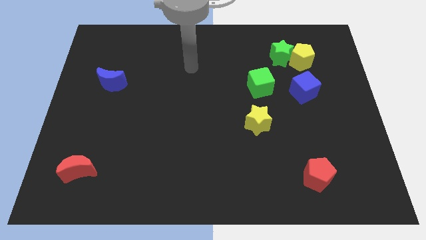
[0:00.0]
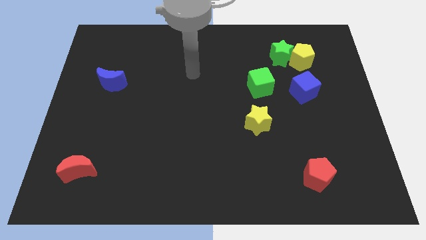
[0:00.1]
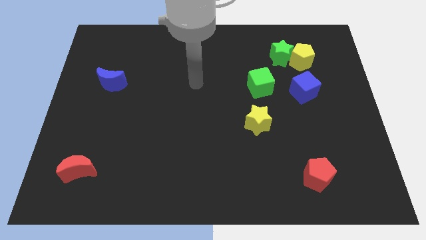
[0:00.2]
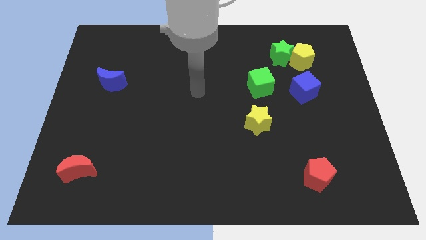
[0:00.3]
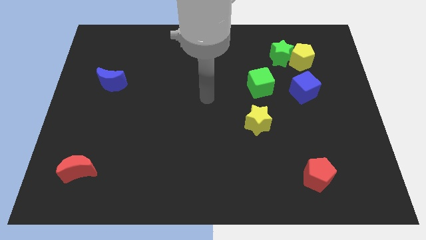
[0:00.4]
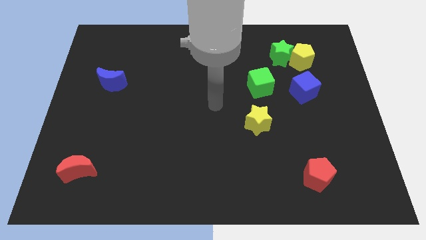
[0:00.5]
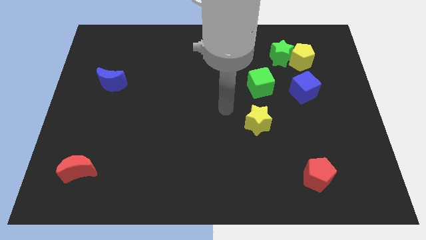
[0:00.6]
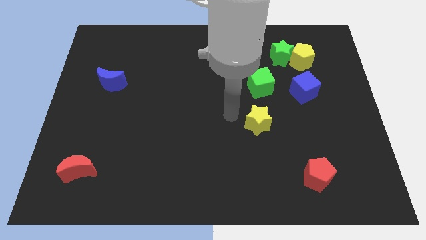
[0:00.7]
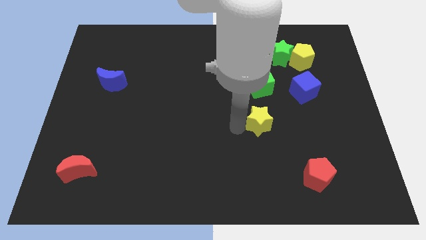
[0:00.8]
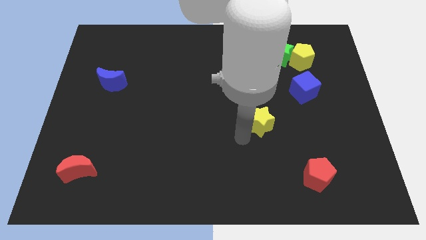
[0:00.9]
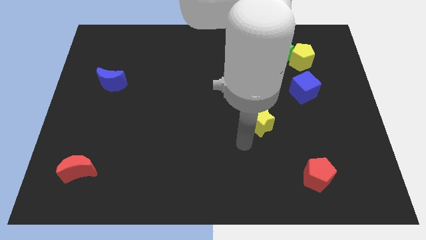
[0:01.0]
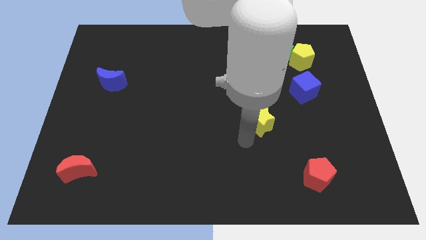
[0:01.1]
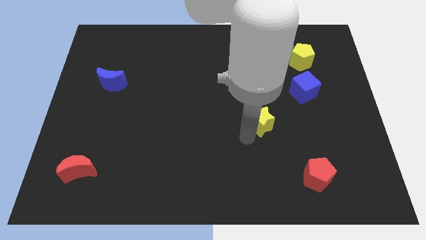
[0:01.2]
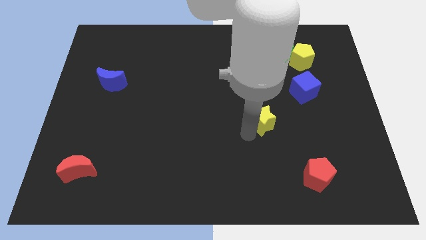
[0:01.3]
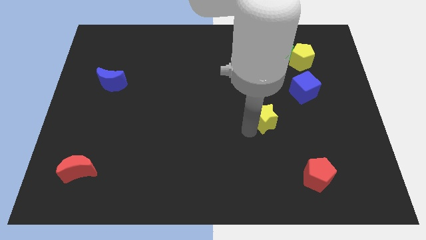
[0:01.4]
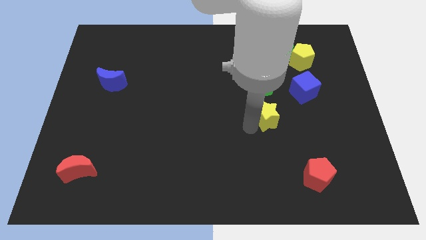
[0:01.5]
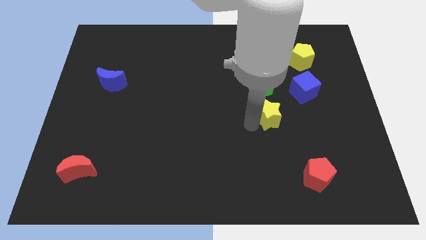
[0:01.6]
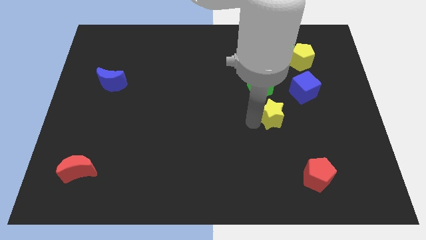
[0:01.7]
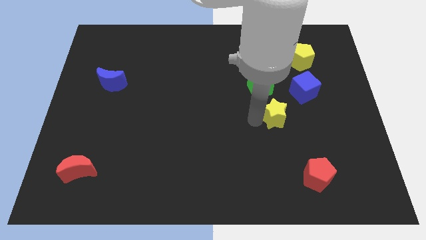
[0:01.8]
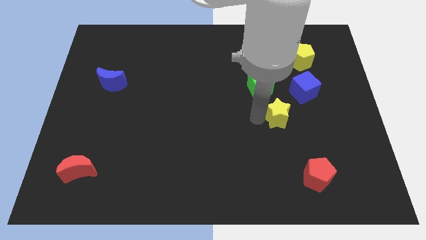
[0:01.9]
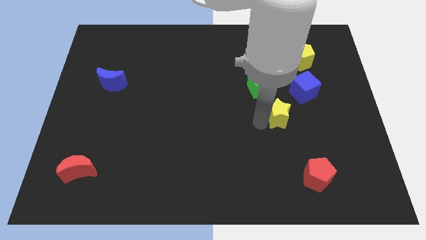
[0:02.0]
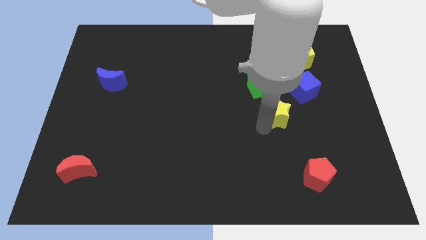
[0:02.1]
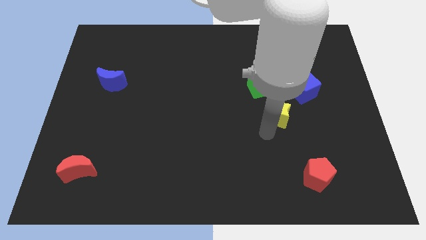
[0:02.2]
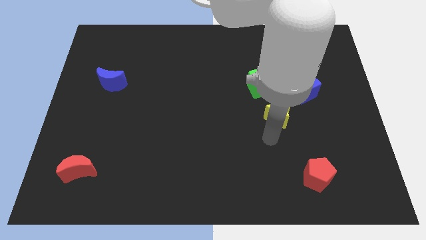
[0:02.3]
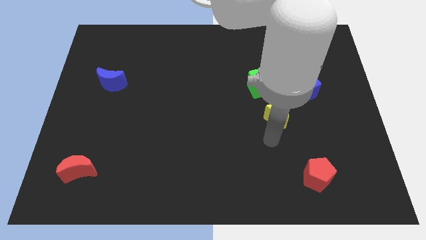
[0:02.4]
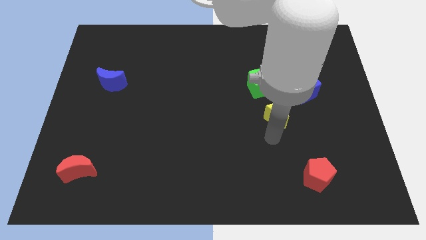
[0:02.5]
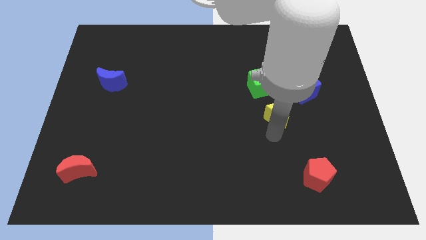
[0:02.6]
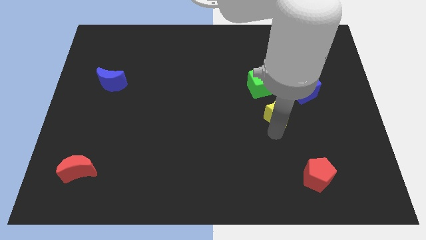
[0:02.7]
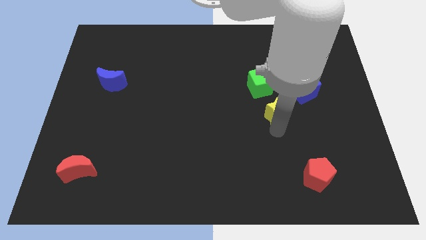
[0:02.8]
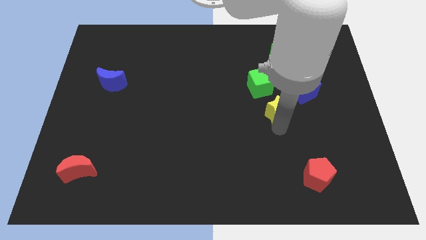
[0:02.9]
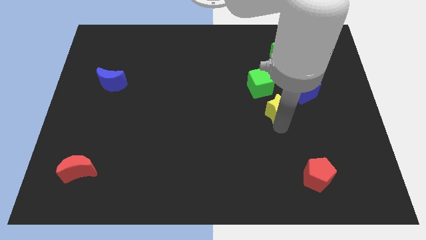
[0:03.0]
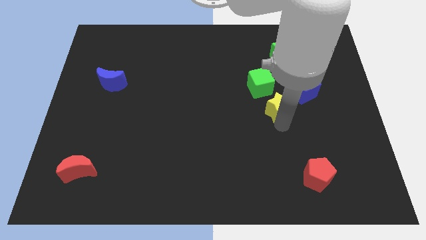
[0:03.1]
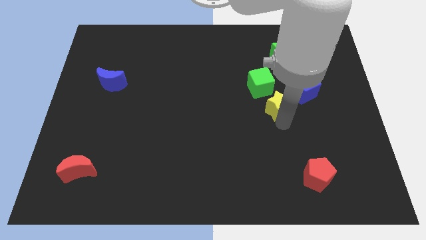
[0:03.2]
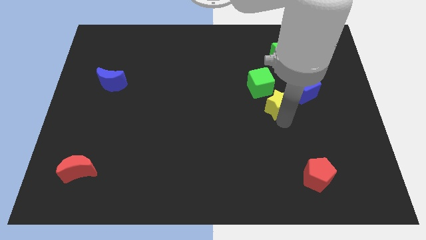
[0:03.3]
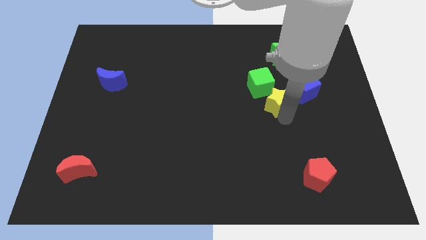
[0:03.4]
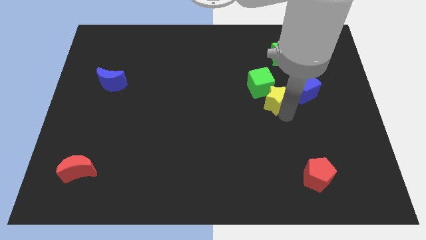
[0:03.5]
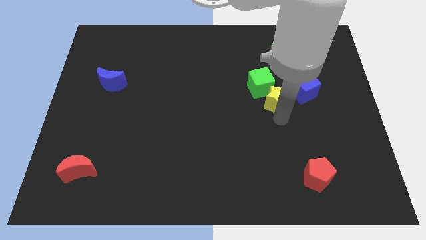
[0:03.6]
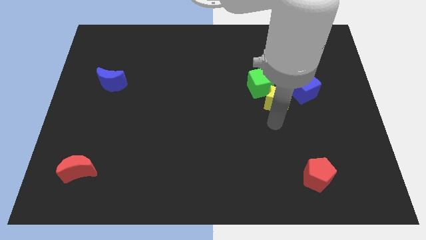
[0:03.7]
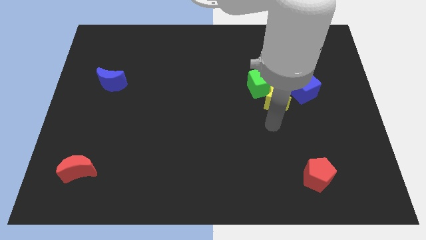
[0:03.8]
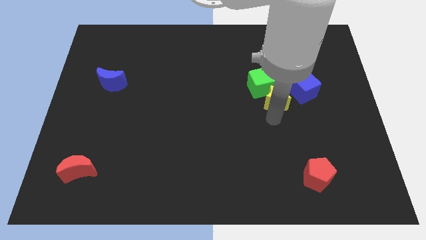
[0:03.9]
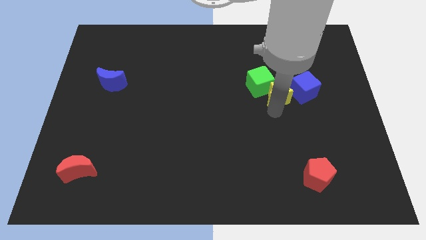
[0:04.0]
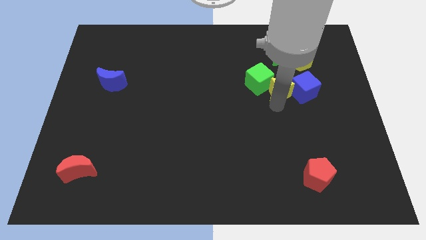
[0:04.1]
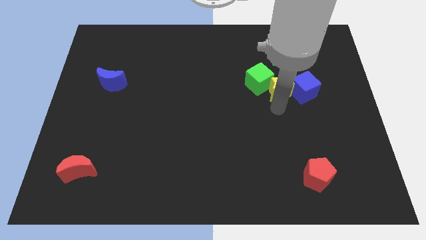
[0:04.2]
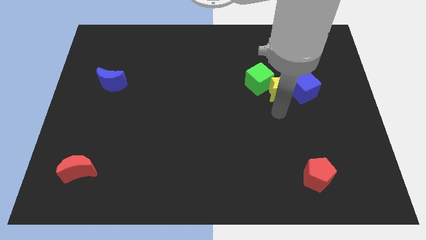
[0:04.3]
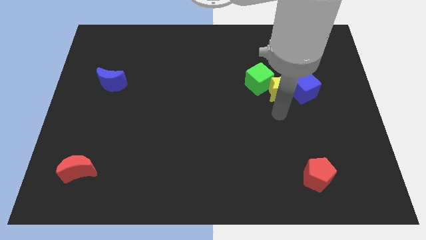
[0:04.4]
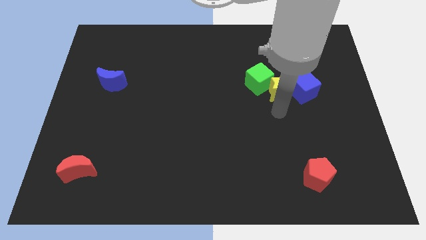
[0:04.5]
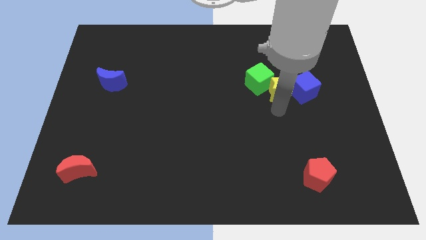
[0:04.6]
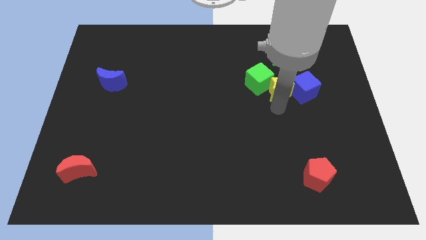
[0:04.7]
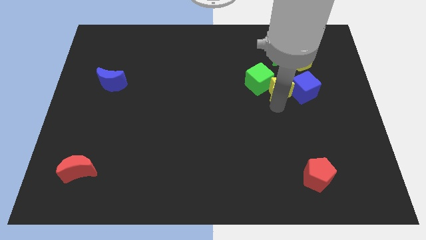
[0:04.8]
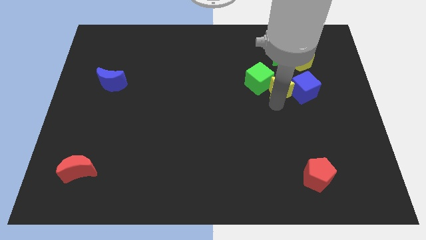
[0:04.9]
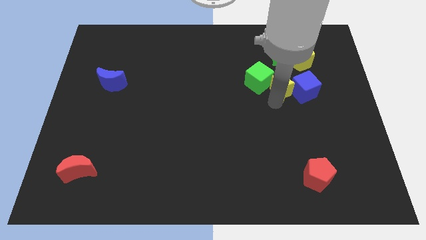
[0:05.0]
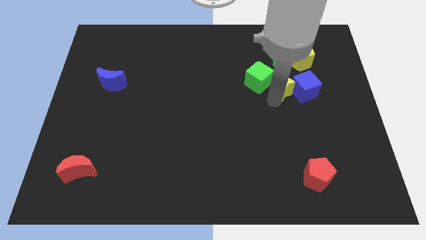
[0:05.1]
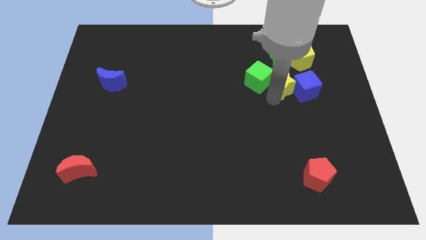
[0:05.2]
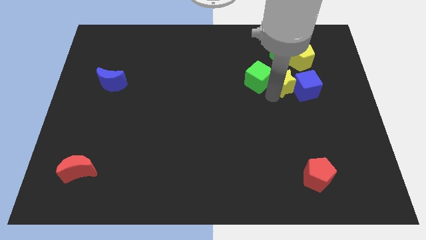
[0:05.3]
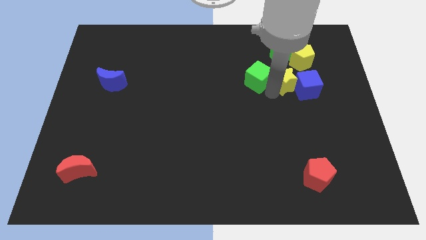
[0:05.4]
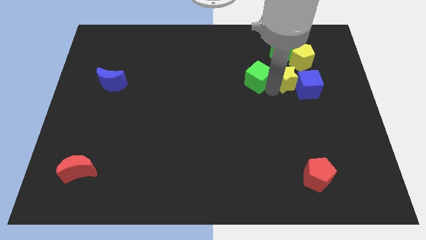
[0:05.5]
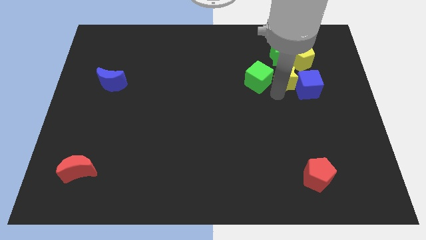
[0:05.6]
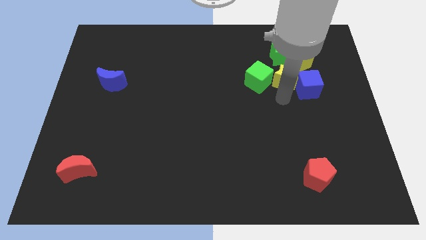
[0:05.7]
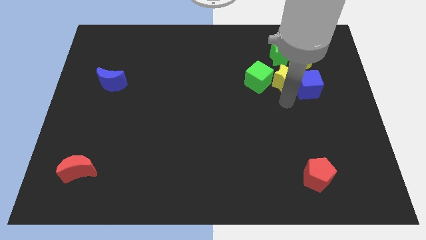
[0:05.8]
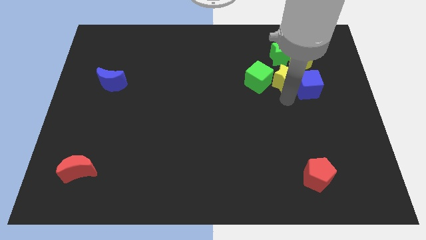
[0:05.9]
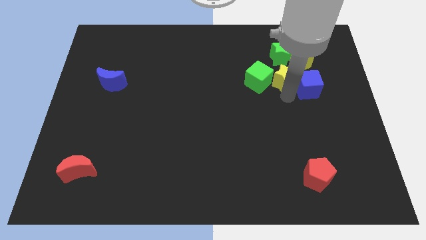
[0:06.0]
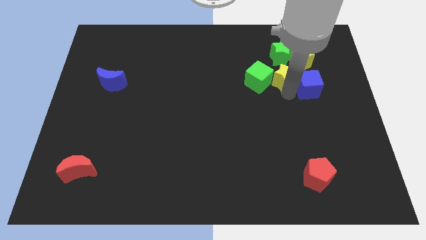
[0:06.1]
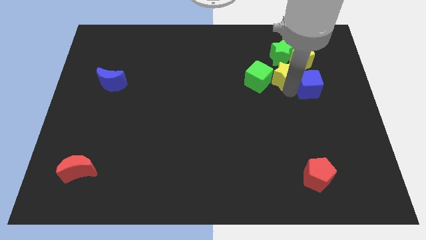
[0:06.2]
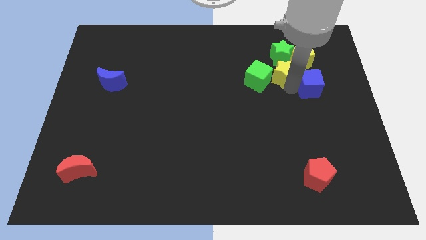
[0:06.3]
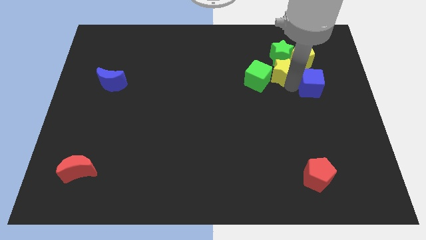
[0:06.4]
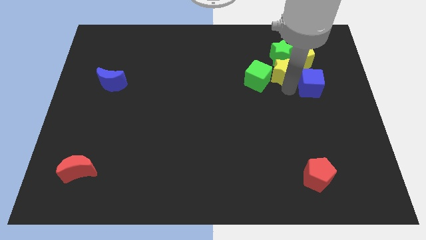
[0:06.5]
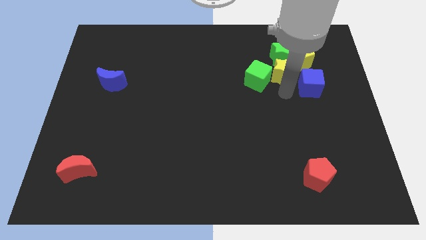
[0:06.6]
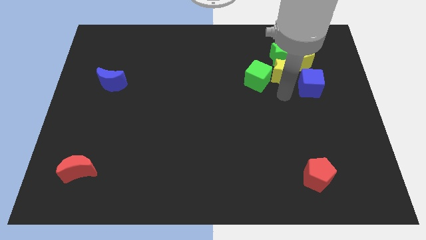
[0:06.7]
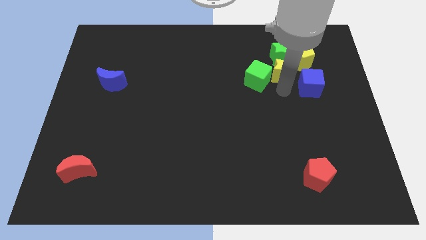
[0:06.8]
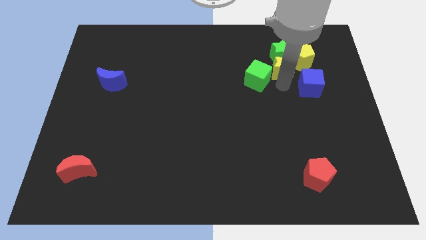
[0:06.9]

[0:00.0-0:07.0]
move the yellow star towards the green star

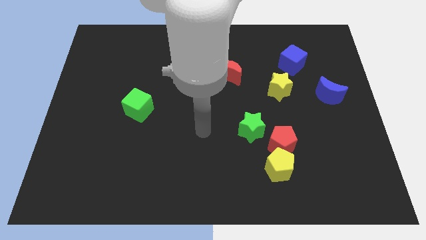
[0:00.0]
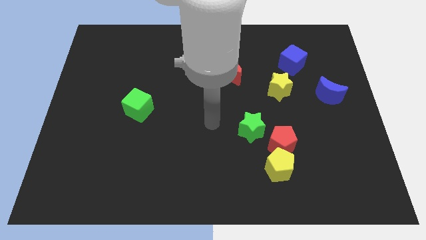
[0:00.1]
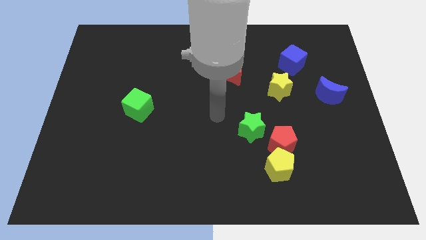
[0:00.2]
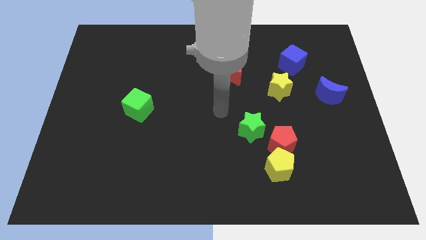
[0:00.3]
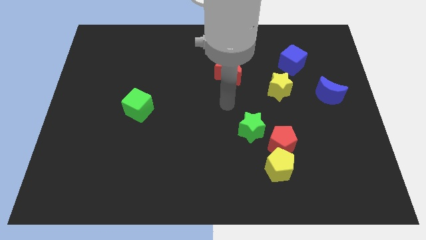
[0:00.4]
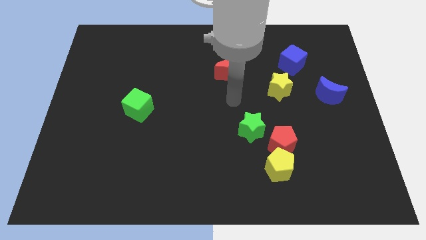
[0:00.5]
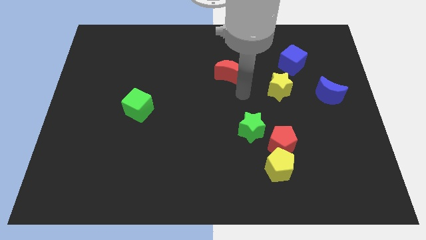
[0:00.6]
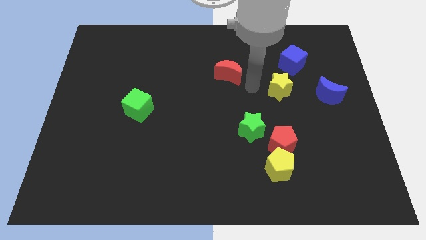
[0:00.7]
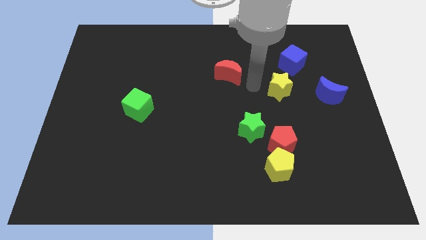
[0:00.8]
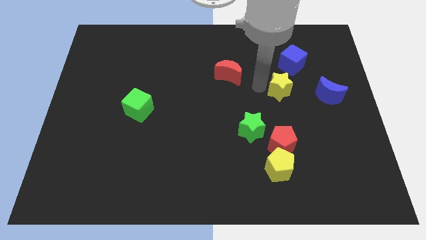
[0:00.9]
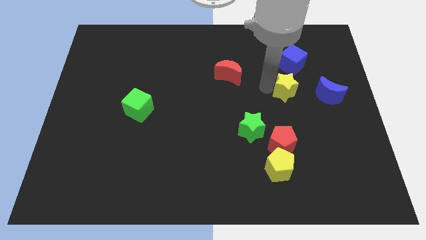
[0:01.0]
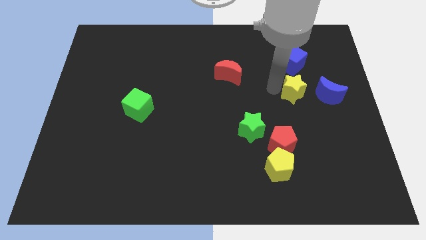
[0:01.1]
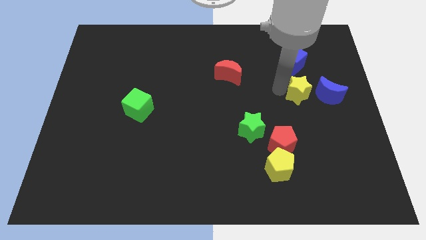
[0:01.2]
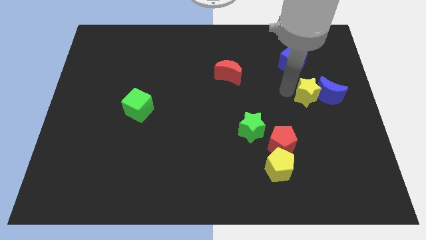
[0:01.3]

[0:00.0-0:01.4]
slide the yellow star close to the blue moon
